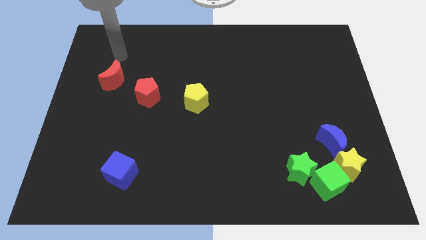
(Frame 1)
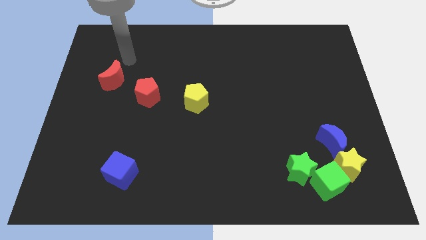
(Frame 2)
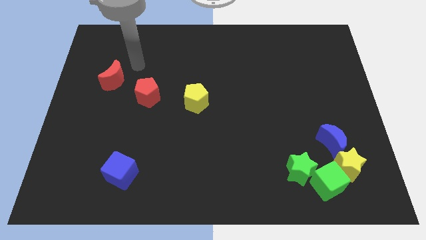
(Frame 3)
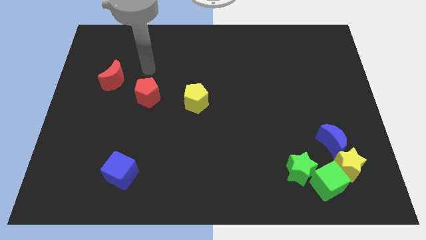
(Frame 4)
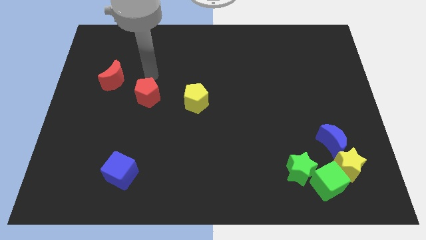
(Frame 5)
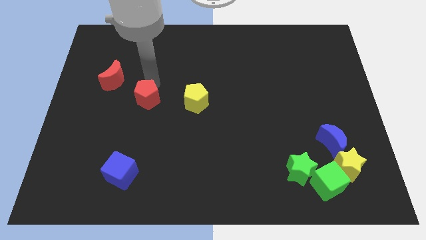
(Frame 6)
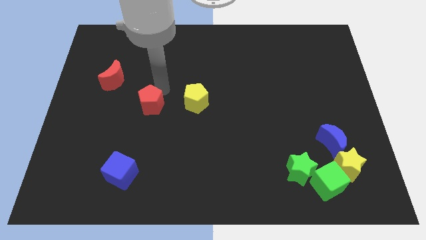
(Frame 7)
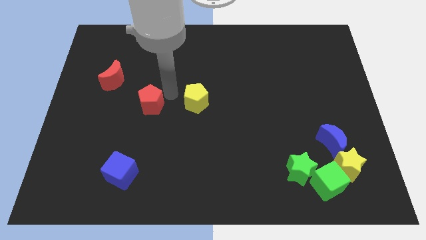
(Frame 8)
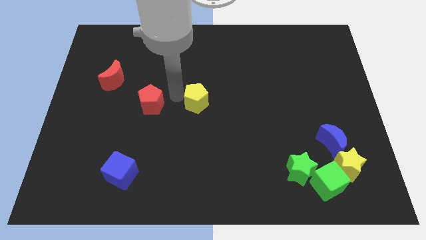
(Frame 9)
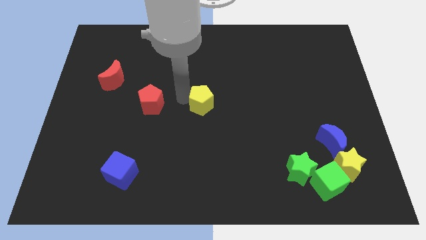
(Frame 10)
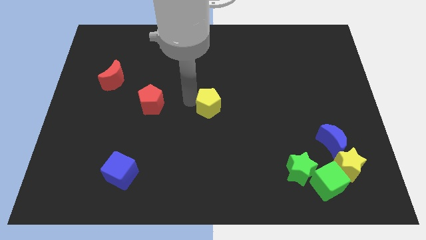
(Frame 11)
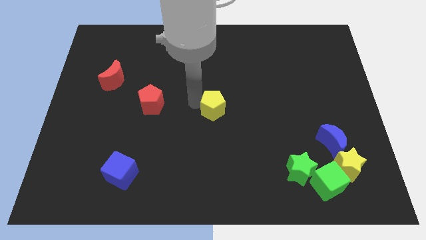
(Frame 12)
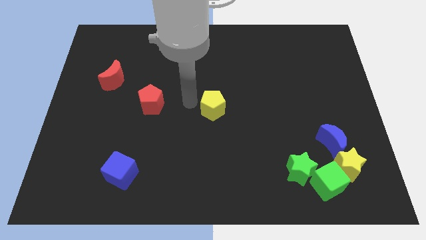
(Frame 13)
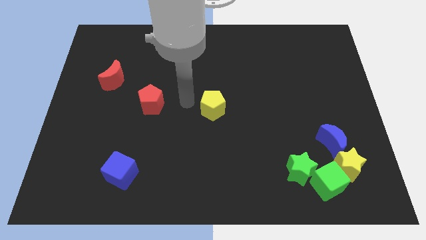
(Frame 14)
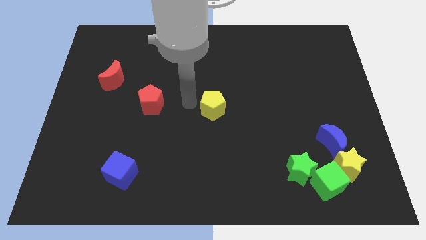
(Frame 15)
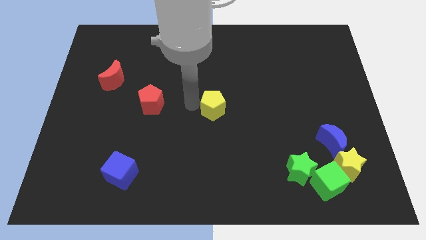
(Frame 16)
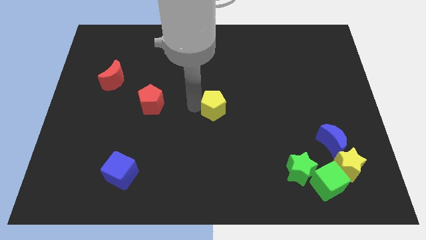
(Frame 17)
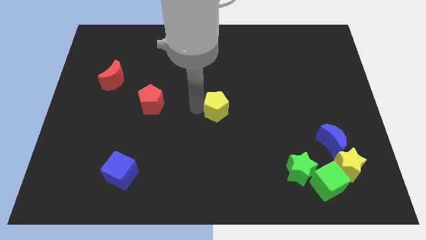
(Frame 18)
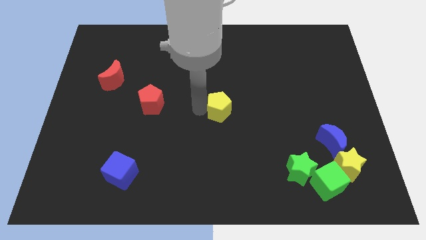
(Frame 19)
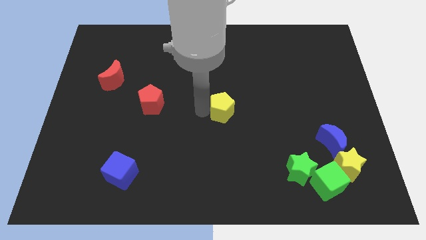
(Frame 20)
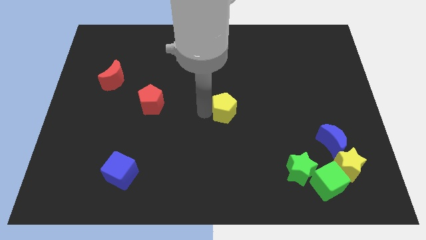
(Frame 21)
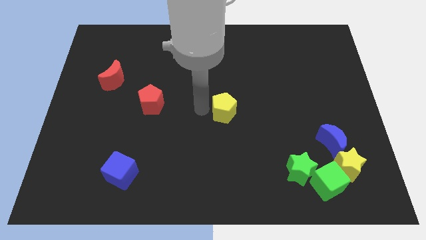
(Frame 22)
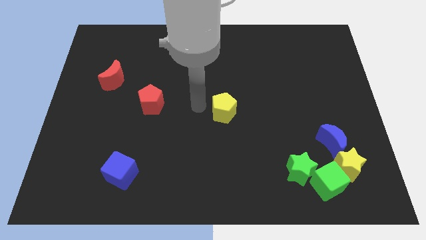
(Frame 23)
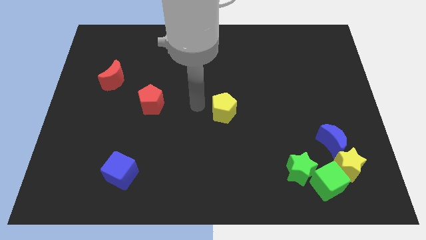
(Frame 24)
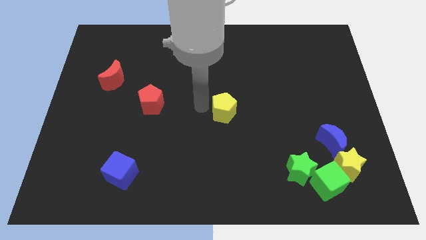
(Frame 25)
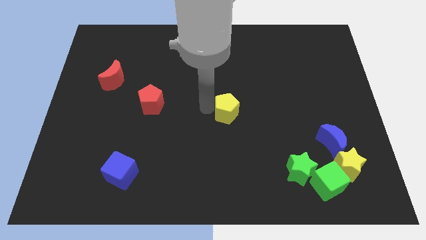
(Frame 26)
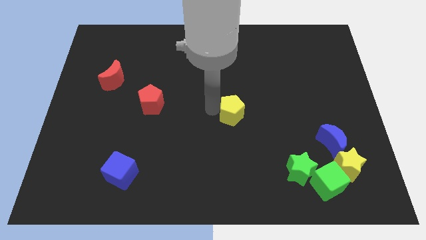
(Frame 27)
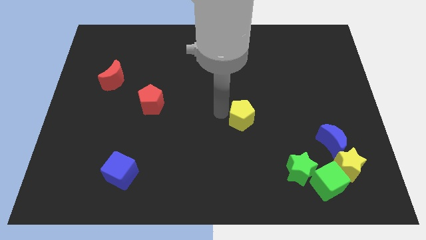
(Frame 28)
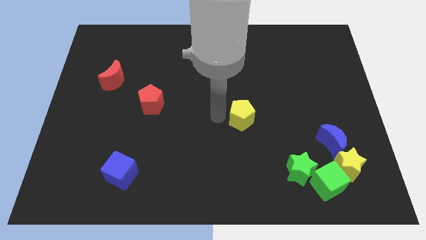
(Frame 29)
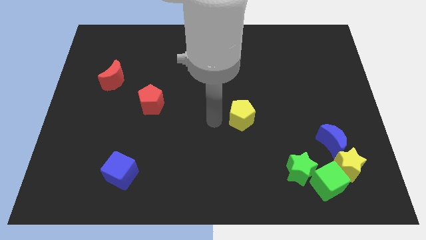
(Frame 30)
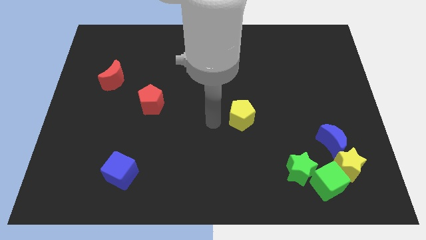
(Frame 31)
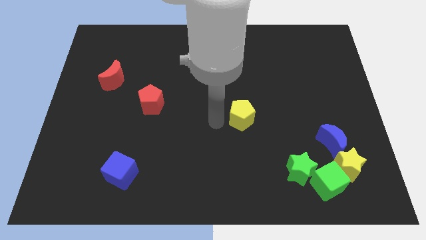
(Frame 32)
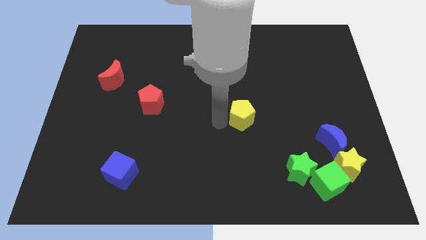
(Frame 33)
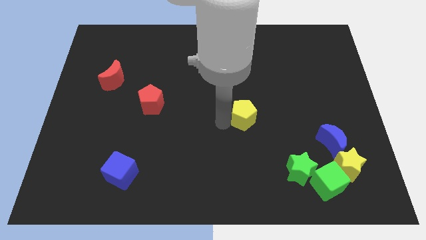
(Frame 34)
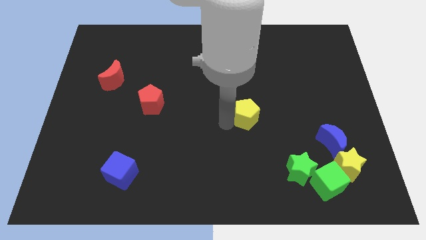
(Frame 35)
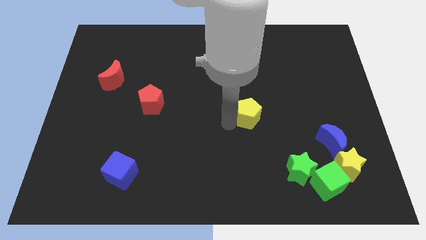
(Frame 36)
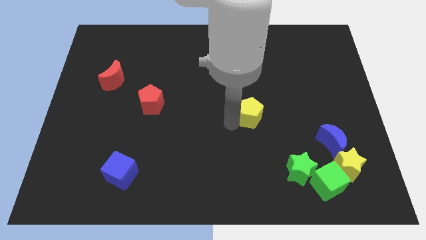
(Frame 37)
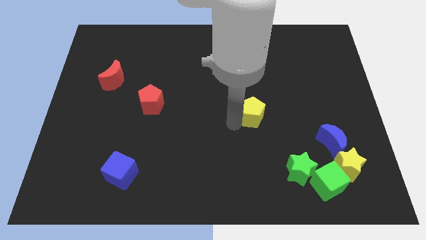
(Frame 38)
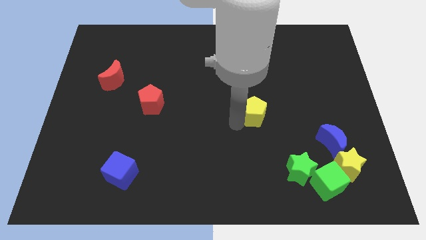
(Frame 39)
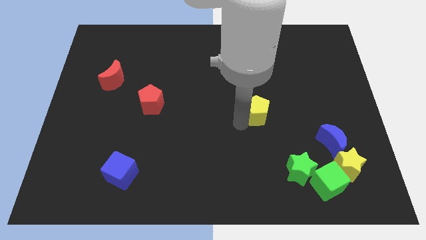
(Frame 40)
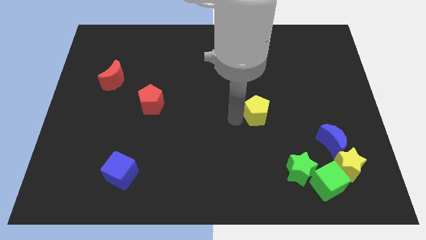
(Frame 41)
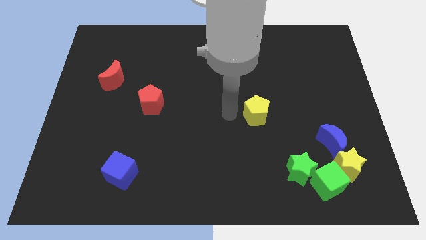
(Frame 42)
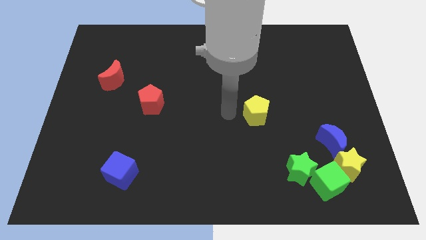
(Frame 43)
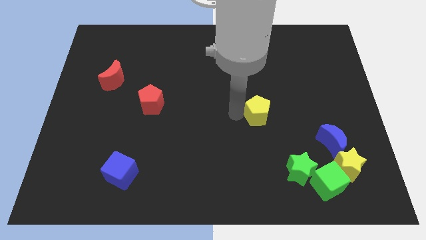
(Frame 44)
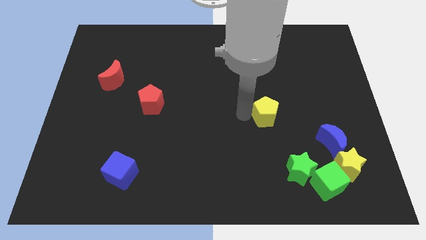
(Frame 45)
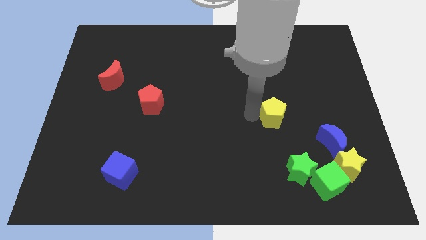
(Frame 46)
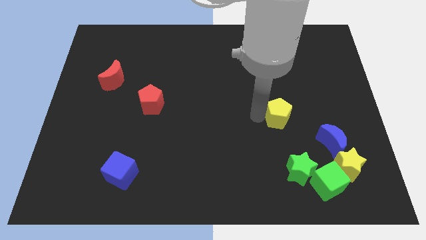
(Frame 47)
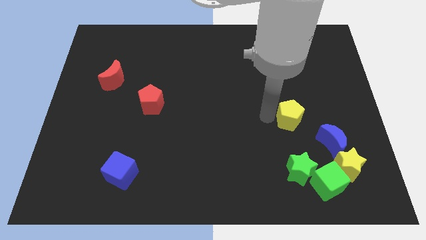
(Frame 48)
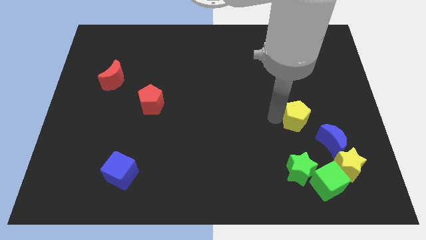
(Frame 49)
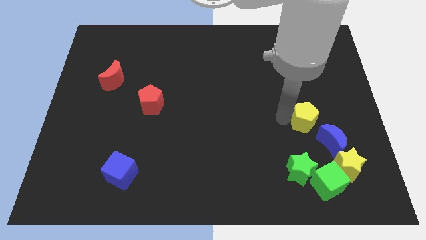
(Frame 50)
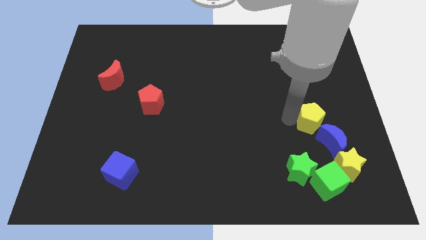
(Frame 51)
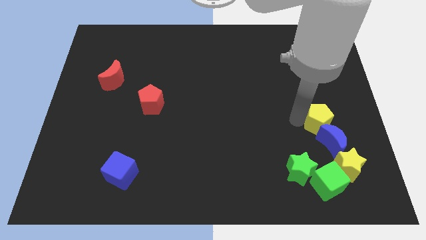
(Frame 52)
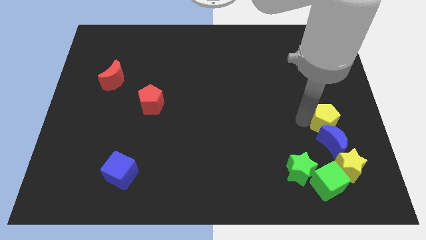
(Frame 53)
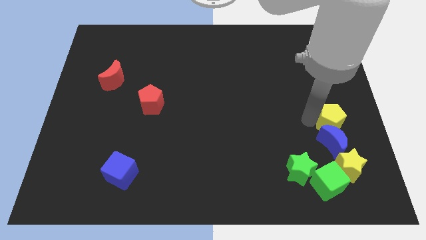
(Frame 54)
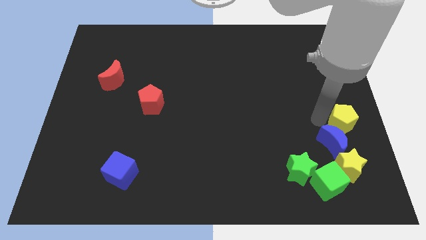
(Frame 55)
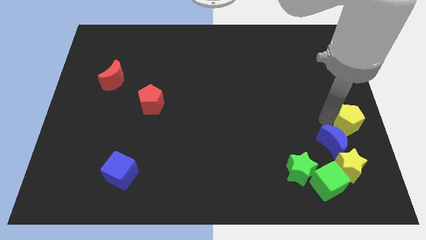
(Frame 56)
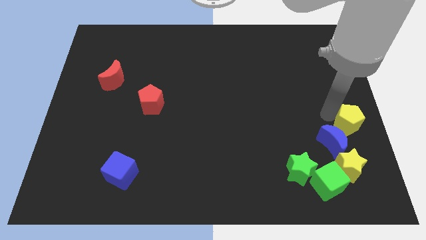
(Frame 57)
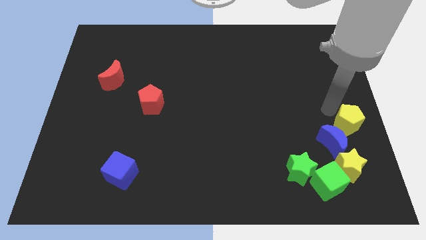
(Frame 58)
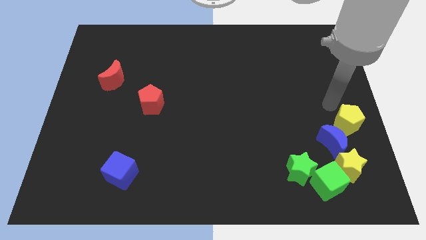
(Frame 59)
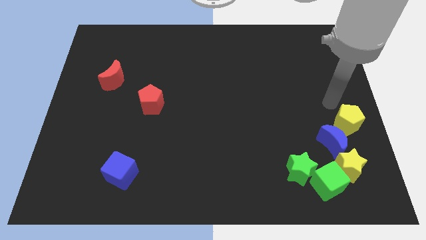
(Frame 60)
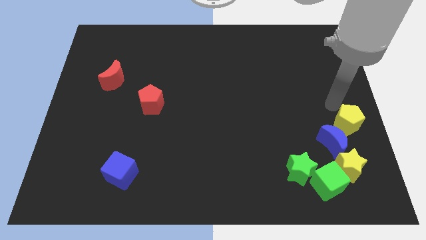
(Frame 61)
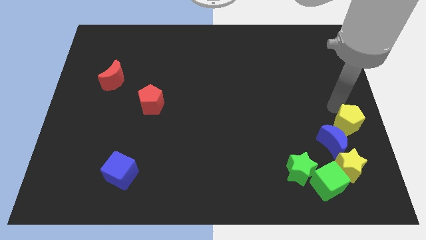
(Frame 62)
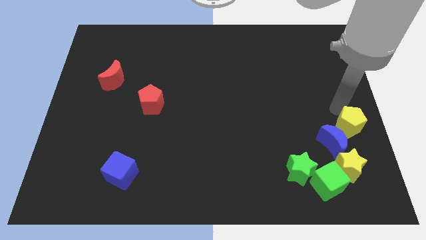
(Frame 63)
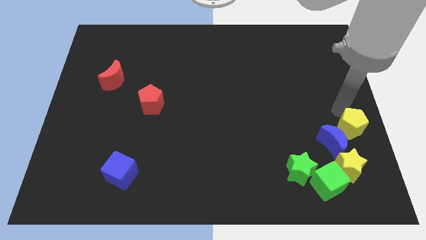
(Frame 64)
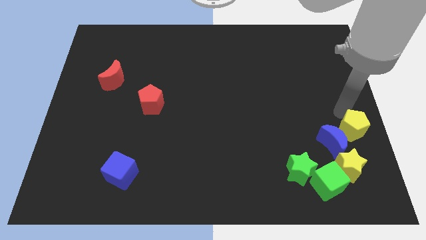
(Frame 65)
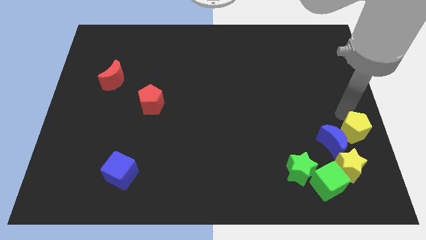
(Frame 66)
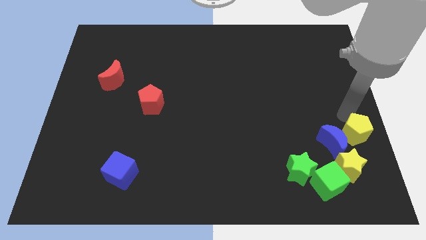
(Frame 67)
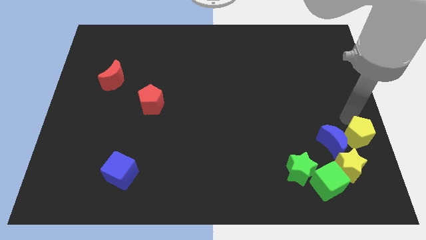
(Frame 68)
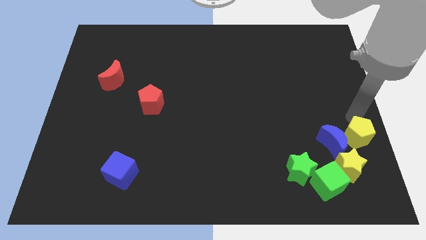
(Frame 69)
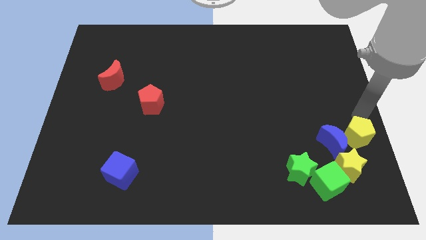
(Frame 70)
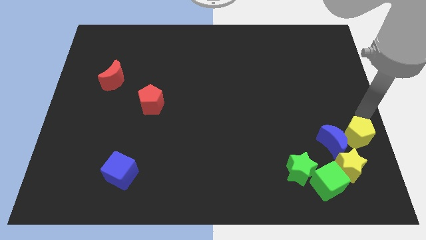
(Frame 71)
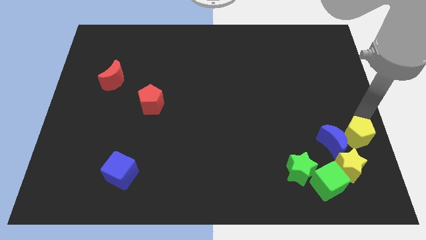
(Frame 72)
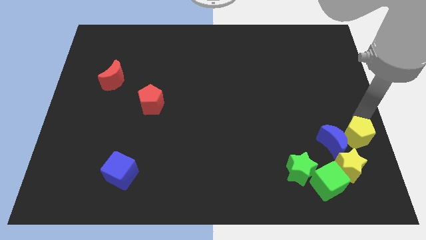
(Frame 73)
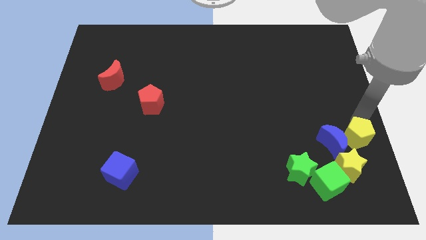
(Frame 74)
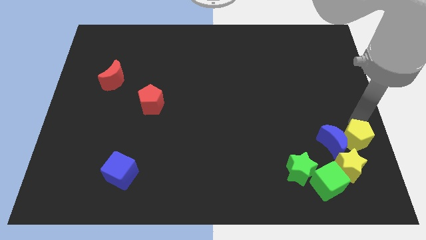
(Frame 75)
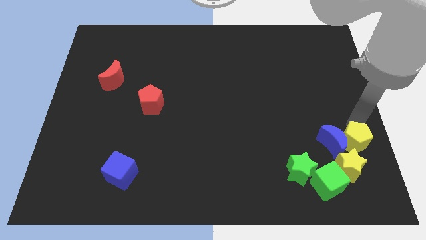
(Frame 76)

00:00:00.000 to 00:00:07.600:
push the yellow pentagon diagonally up and to the right of the green cube
